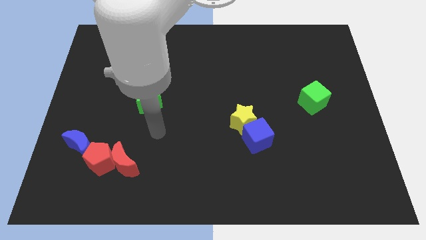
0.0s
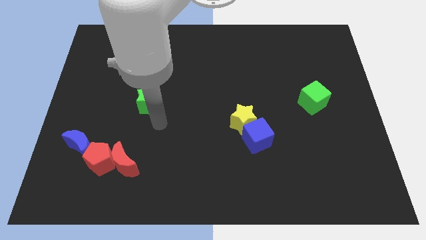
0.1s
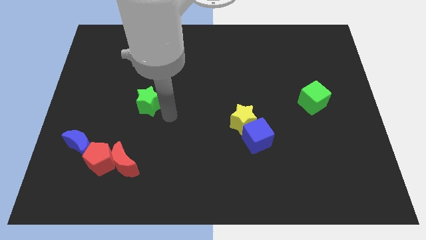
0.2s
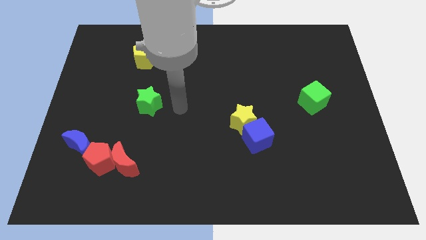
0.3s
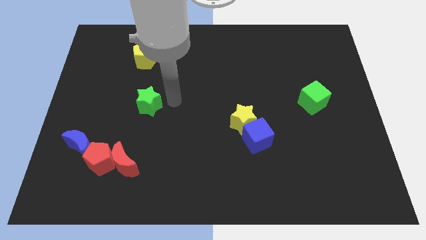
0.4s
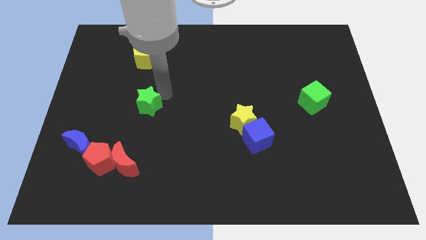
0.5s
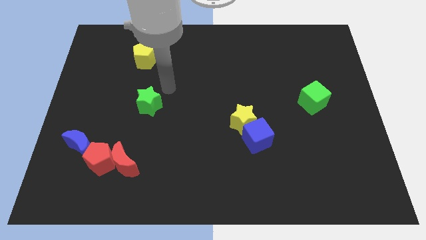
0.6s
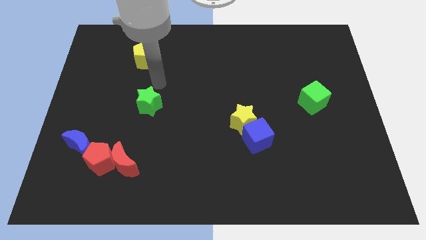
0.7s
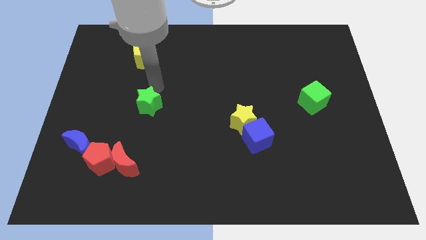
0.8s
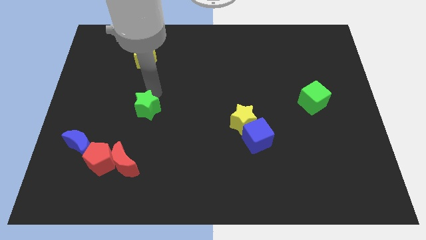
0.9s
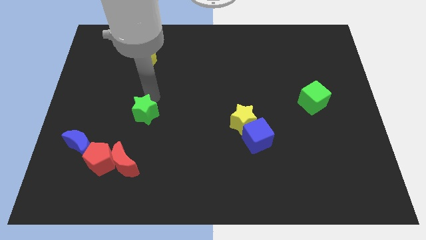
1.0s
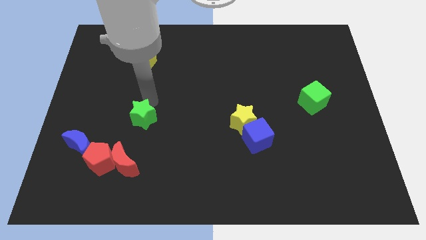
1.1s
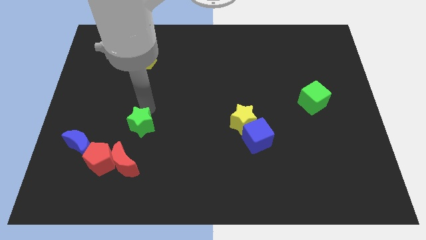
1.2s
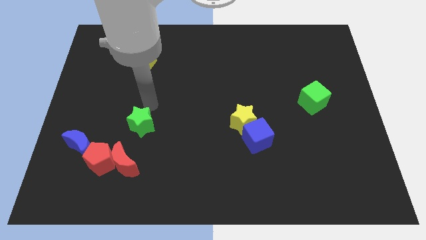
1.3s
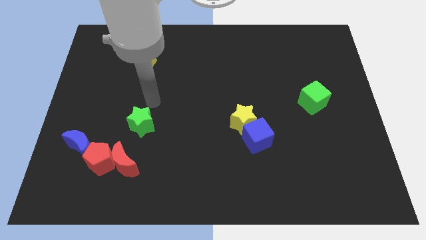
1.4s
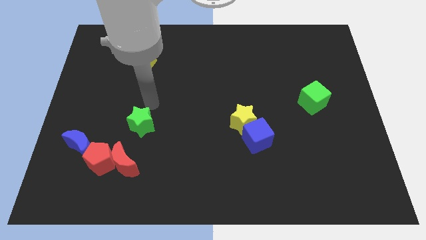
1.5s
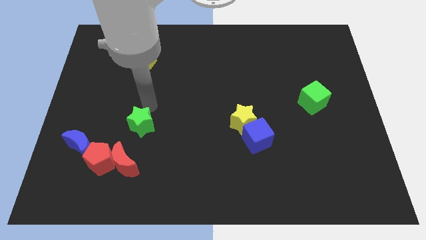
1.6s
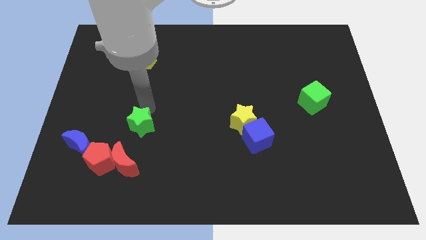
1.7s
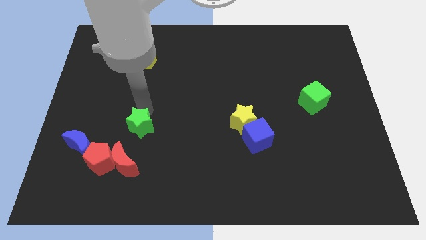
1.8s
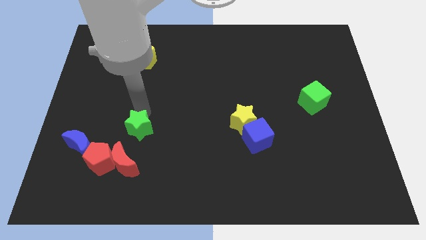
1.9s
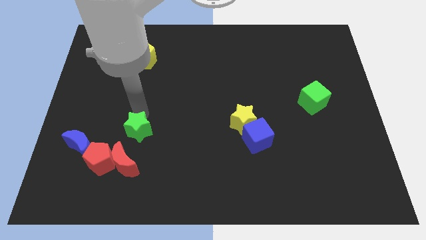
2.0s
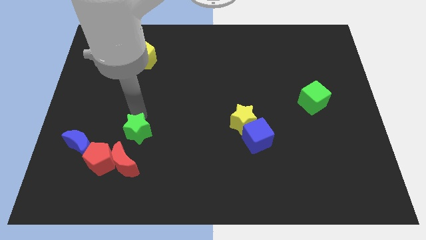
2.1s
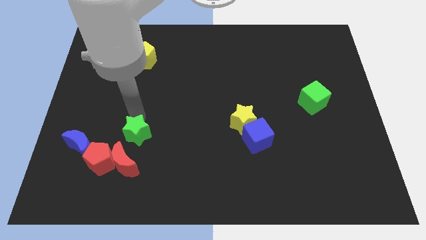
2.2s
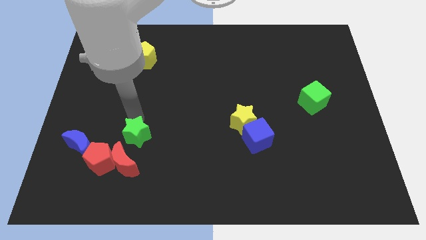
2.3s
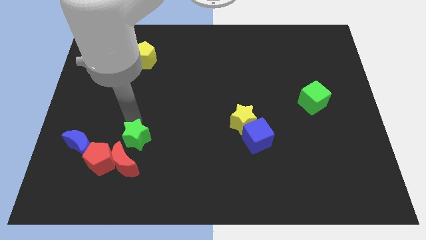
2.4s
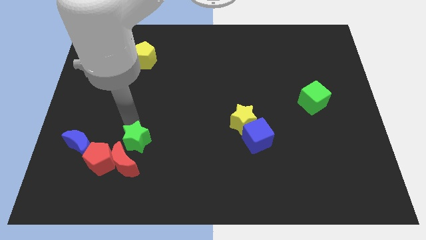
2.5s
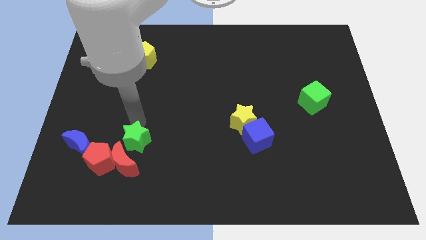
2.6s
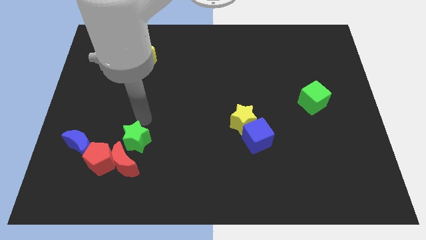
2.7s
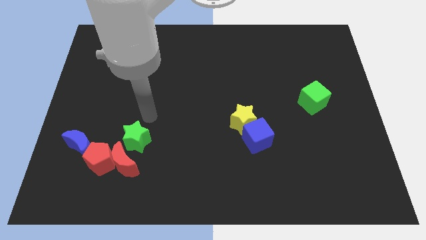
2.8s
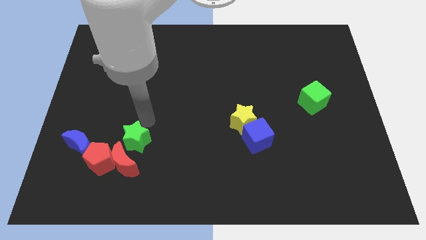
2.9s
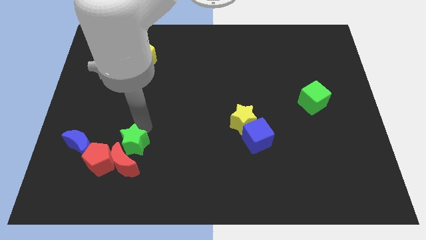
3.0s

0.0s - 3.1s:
slide the green star towards the red moon

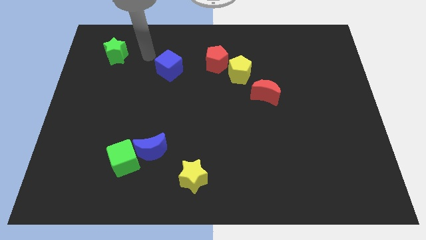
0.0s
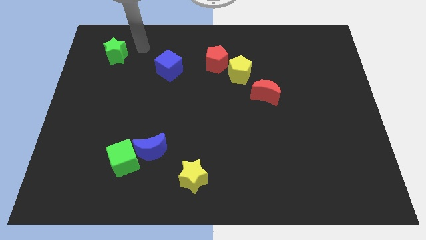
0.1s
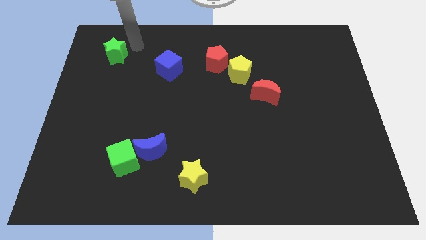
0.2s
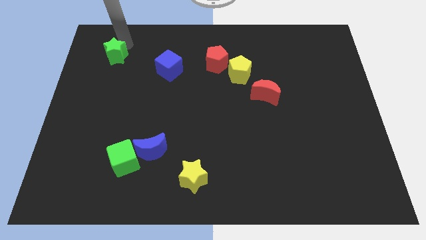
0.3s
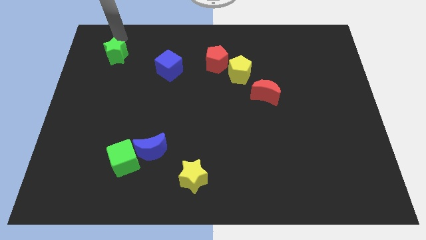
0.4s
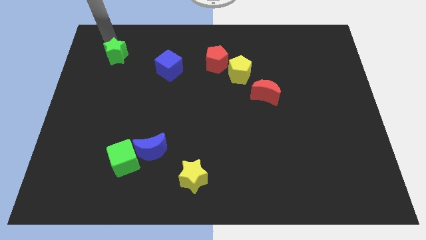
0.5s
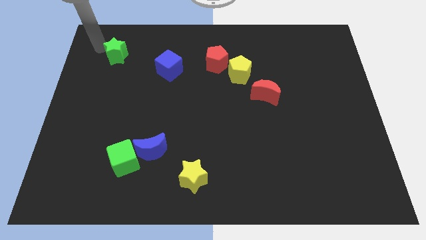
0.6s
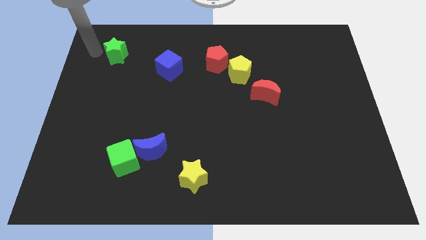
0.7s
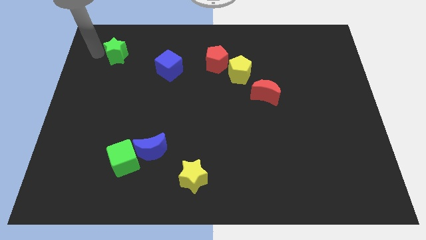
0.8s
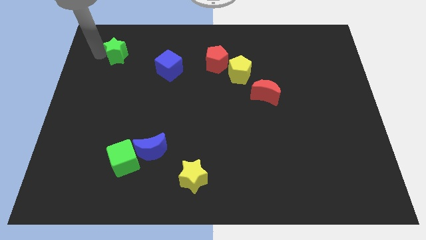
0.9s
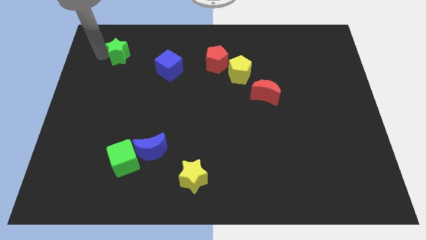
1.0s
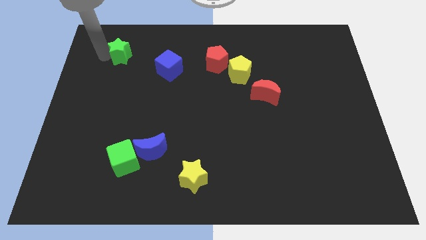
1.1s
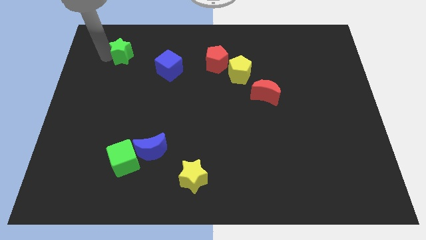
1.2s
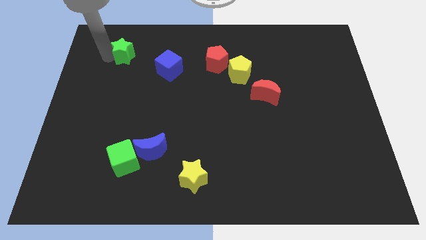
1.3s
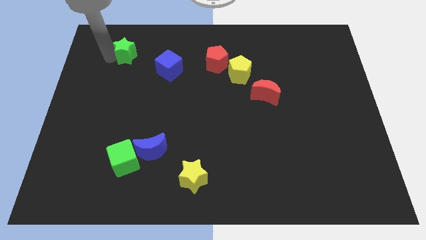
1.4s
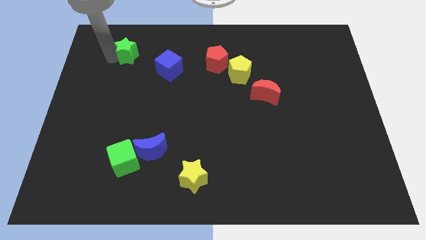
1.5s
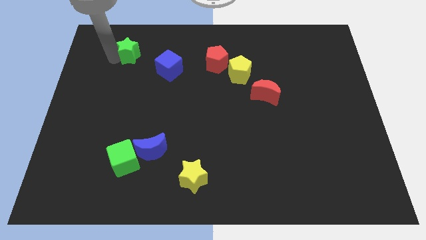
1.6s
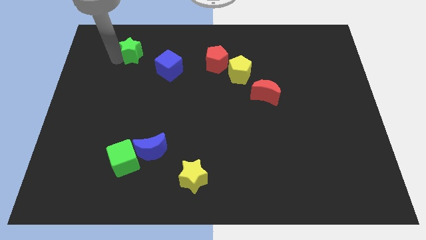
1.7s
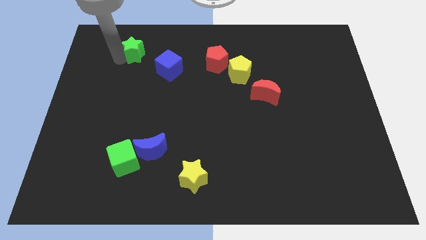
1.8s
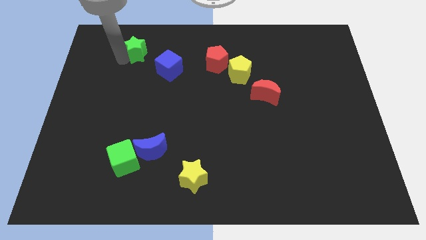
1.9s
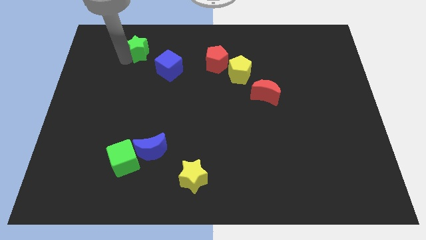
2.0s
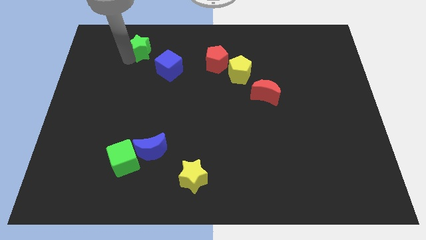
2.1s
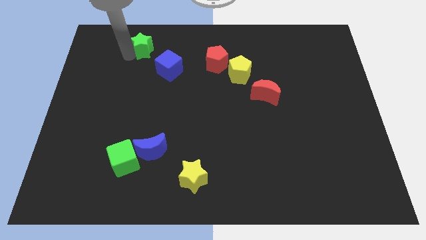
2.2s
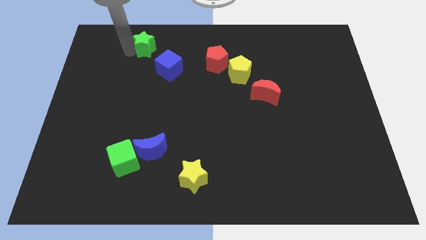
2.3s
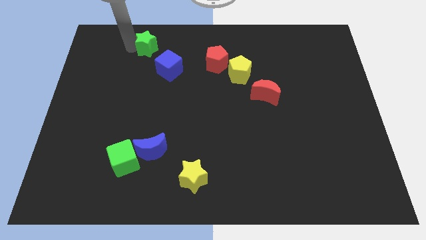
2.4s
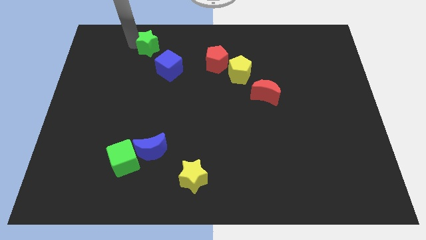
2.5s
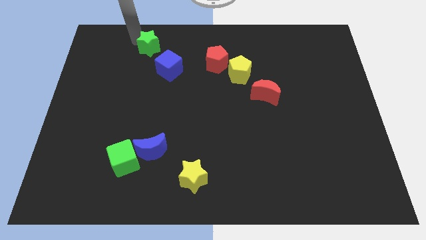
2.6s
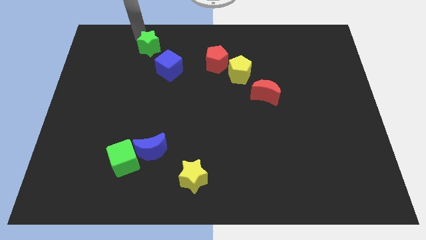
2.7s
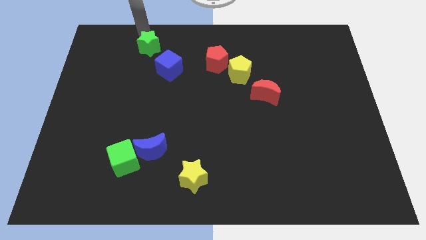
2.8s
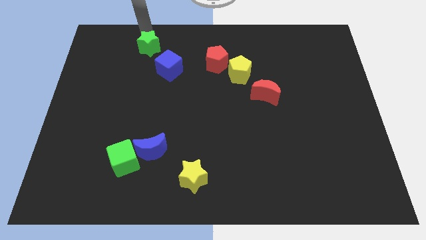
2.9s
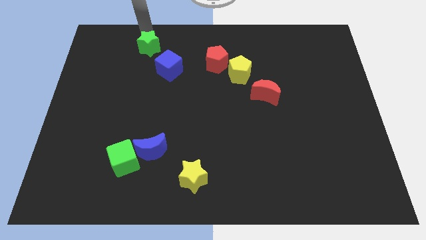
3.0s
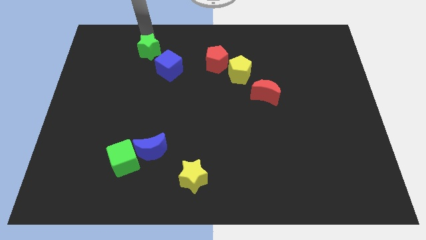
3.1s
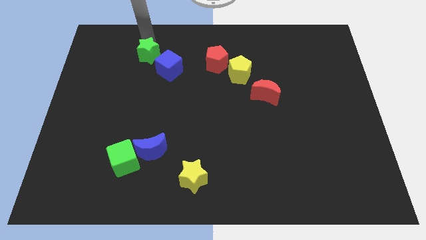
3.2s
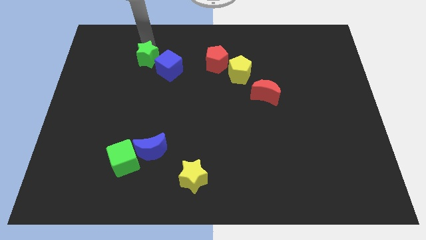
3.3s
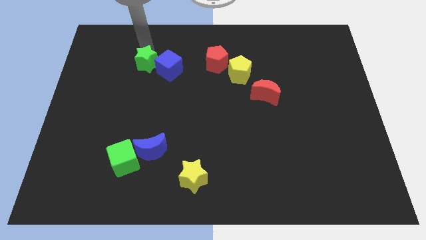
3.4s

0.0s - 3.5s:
move the green star to the blue cube

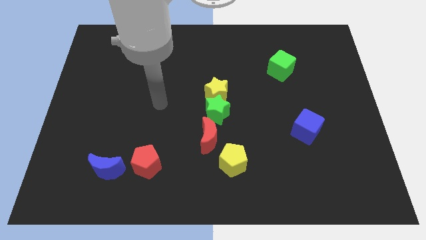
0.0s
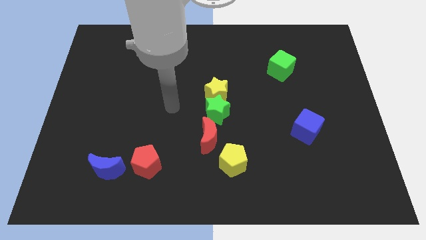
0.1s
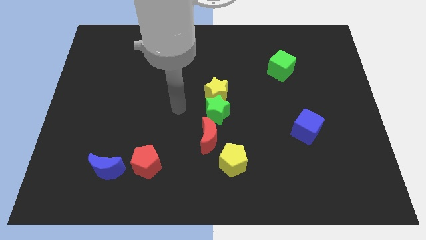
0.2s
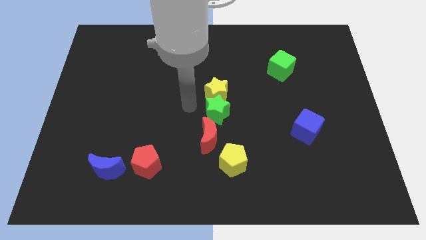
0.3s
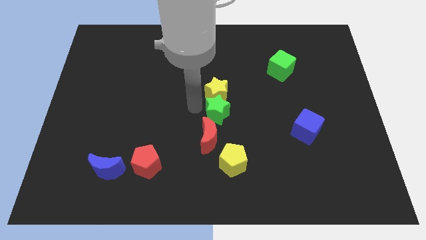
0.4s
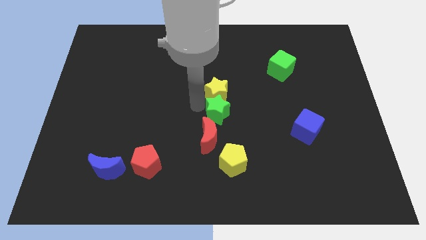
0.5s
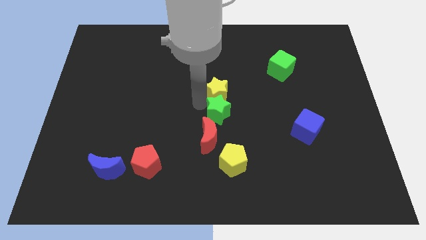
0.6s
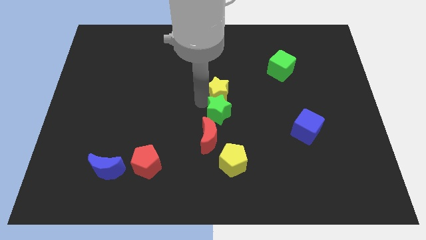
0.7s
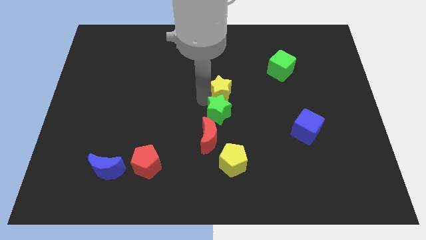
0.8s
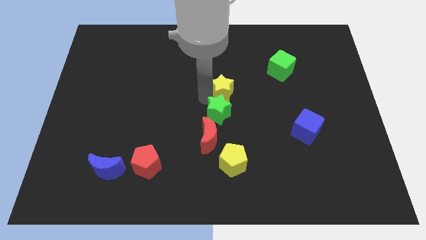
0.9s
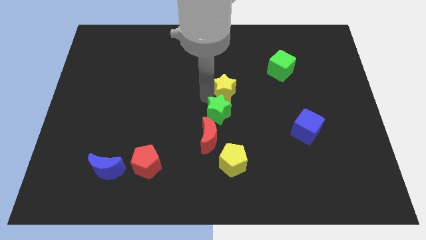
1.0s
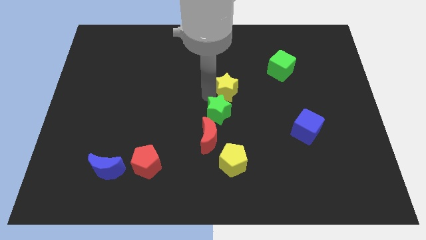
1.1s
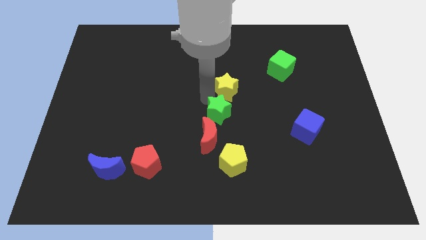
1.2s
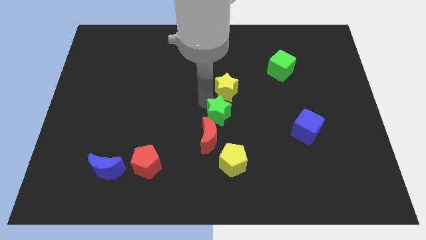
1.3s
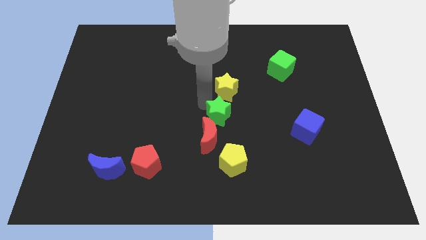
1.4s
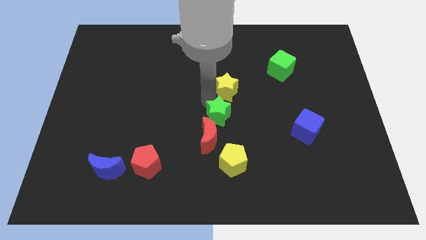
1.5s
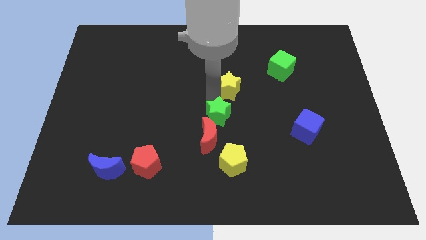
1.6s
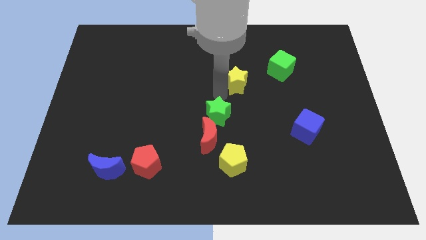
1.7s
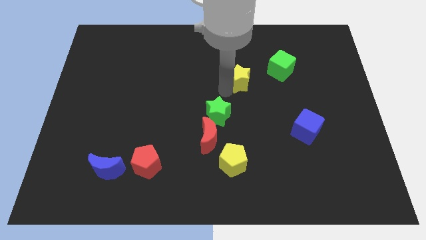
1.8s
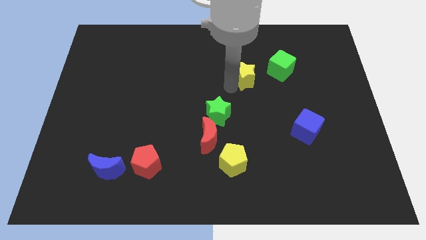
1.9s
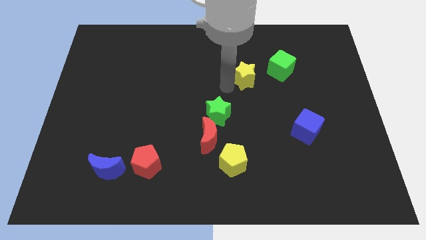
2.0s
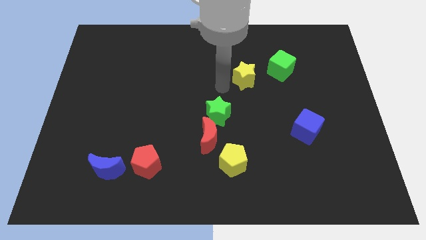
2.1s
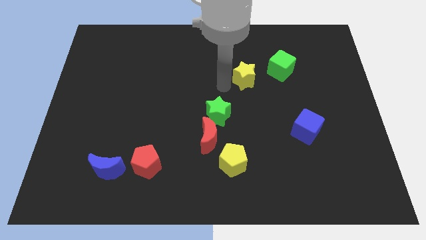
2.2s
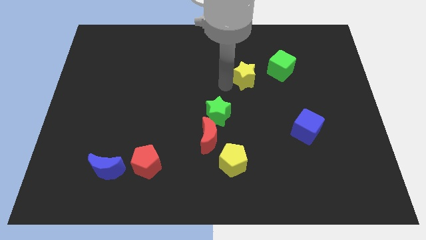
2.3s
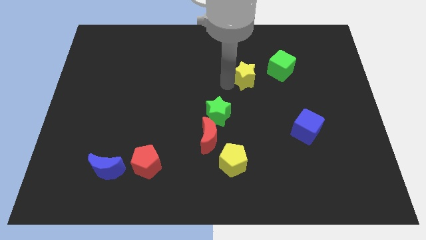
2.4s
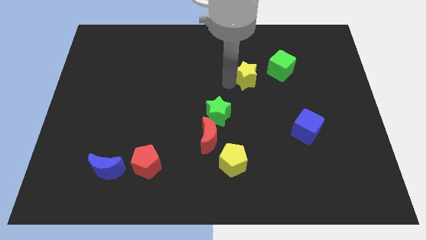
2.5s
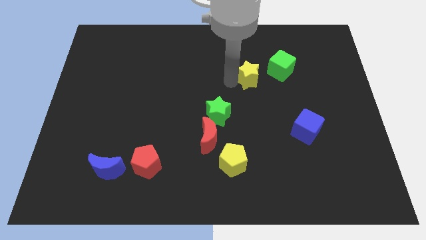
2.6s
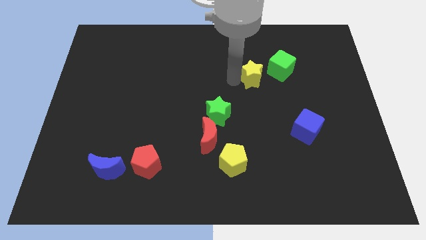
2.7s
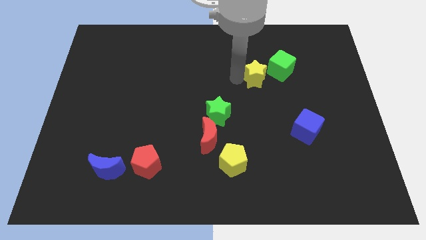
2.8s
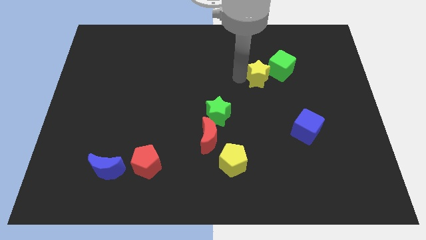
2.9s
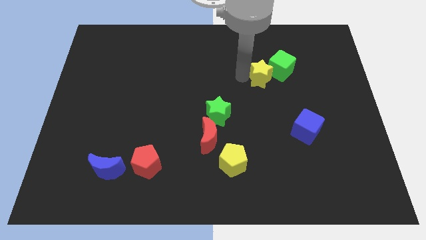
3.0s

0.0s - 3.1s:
put the yellow star close to the green cube
